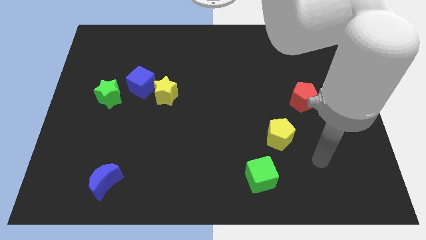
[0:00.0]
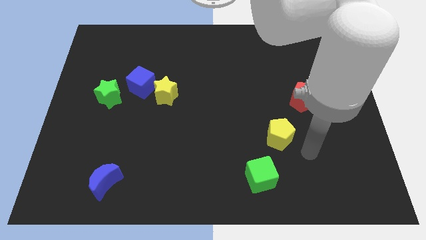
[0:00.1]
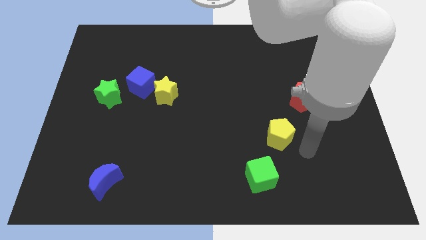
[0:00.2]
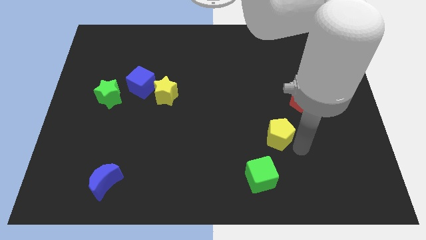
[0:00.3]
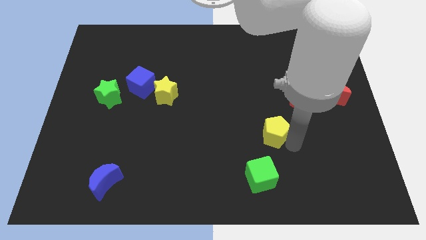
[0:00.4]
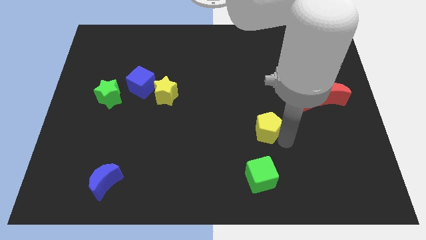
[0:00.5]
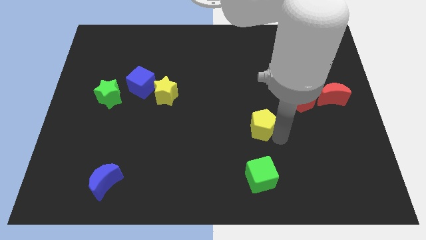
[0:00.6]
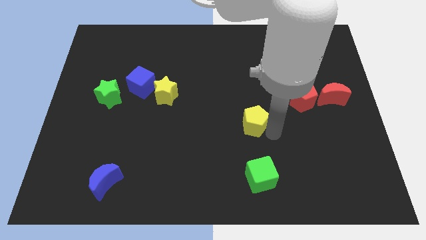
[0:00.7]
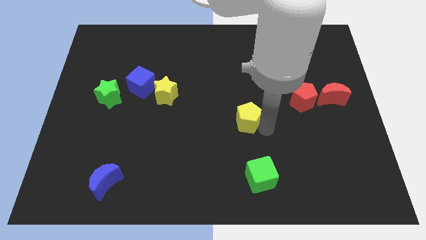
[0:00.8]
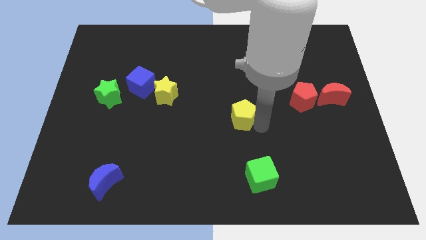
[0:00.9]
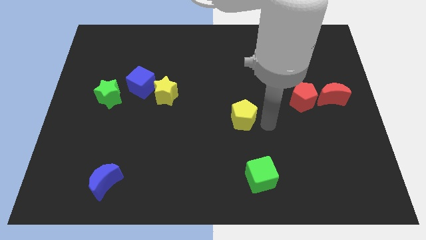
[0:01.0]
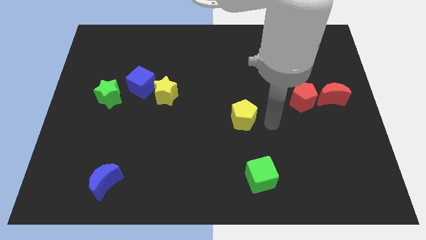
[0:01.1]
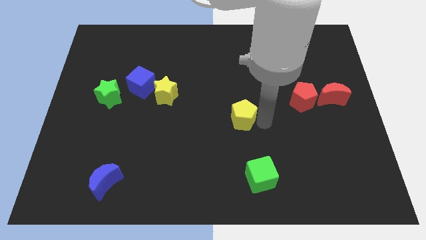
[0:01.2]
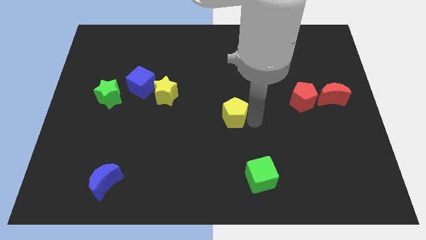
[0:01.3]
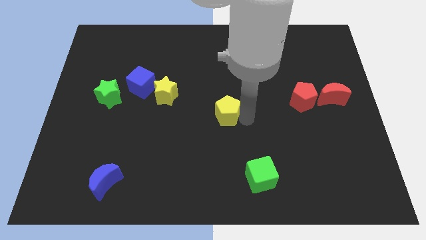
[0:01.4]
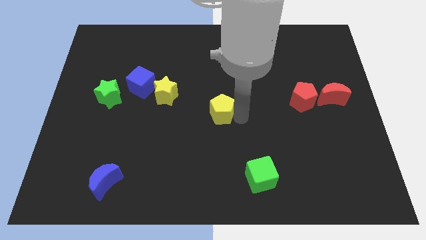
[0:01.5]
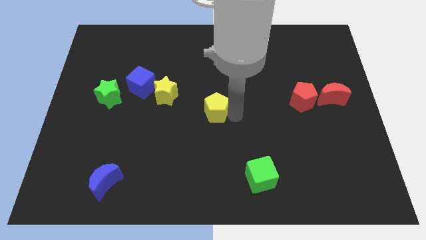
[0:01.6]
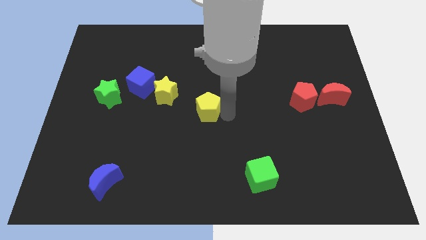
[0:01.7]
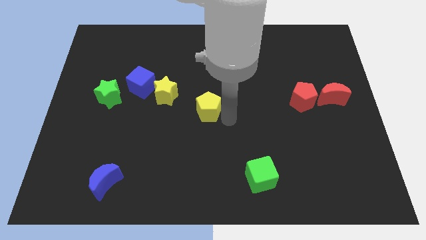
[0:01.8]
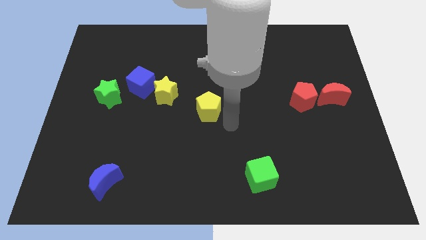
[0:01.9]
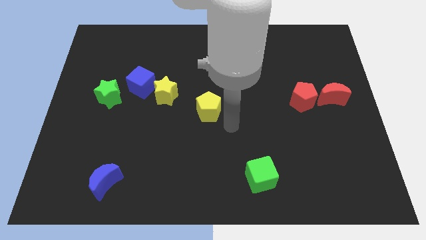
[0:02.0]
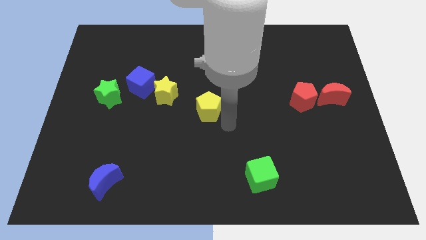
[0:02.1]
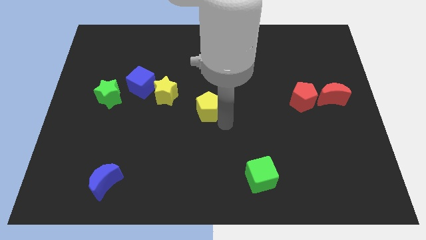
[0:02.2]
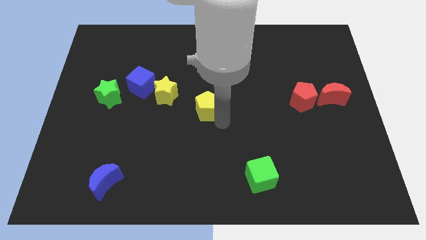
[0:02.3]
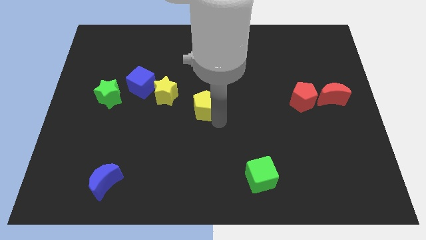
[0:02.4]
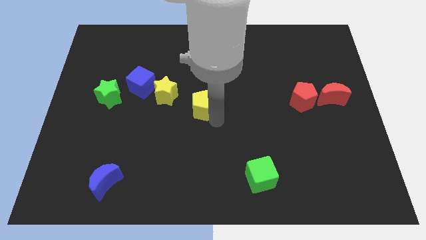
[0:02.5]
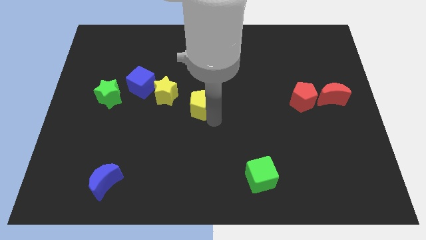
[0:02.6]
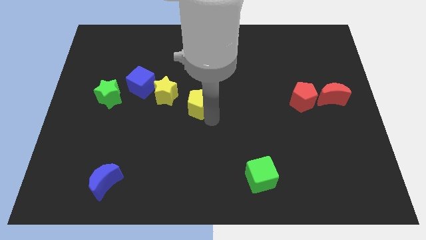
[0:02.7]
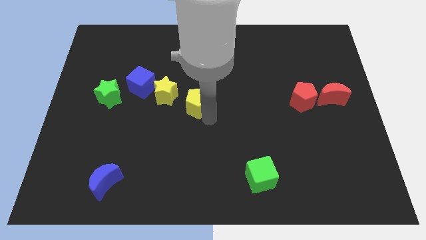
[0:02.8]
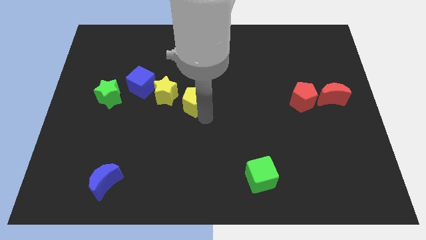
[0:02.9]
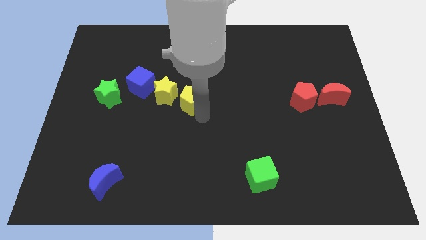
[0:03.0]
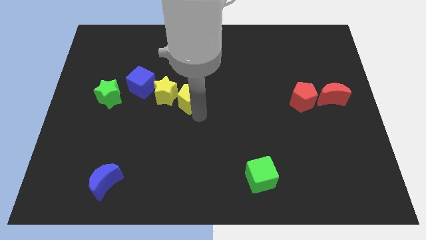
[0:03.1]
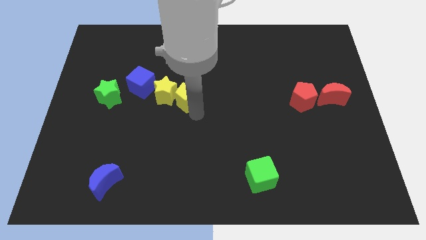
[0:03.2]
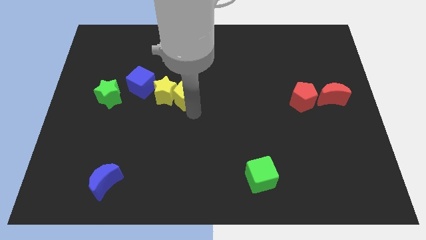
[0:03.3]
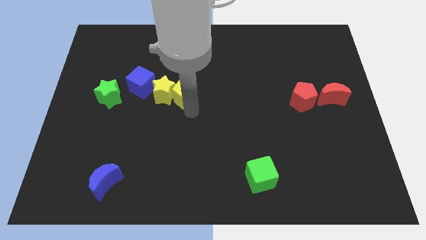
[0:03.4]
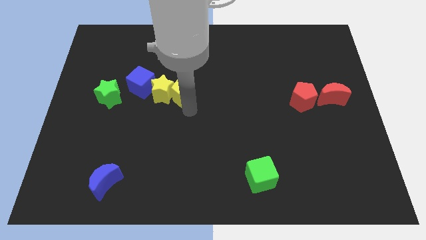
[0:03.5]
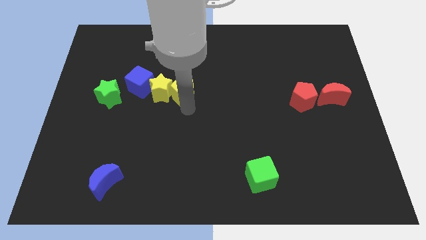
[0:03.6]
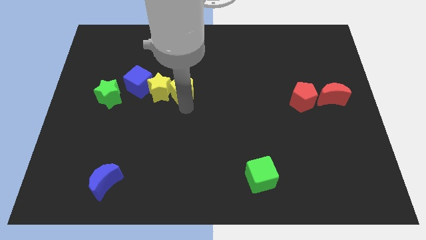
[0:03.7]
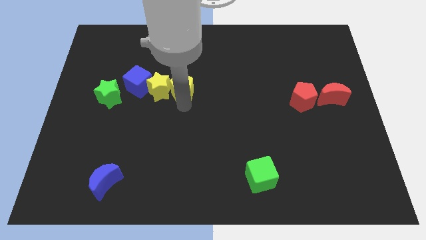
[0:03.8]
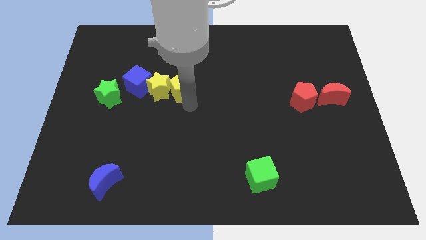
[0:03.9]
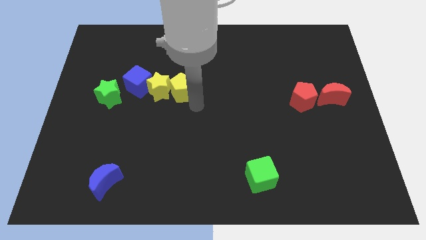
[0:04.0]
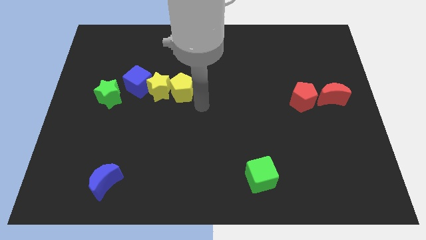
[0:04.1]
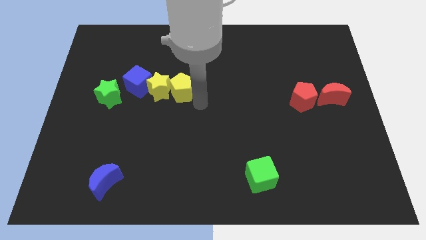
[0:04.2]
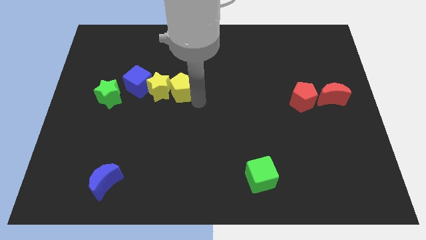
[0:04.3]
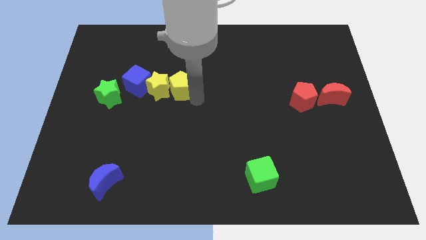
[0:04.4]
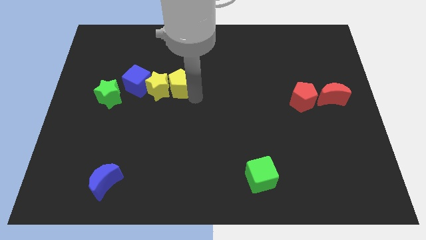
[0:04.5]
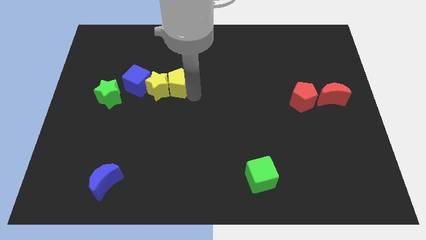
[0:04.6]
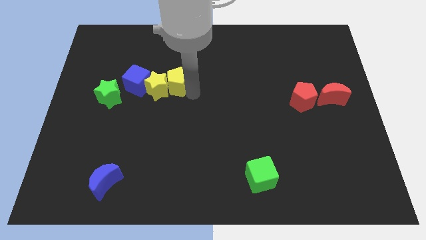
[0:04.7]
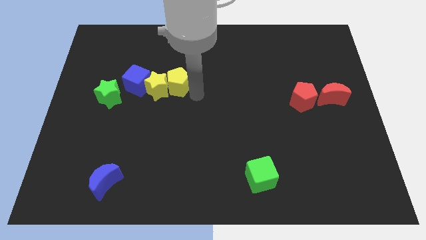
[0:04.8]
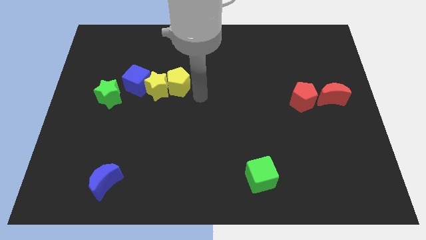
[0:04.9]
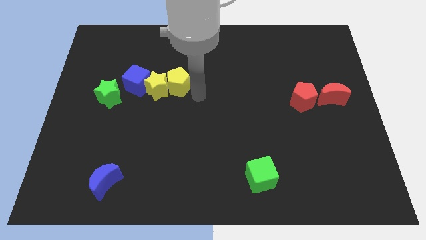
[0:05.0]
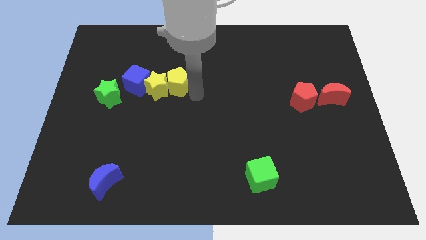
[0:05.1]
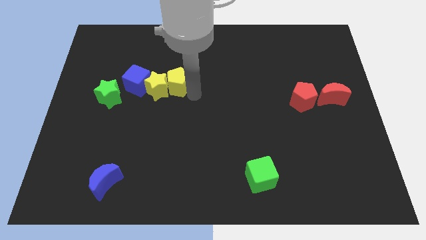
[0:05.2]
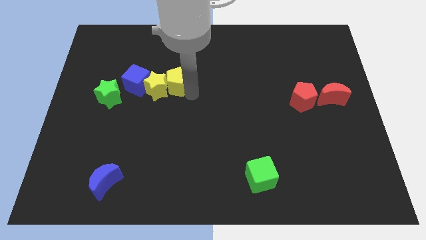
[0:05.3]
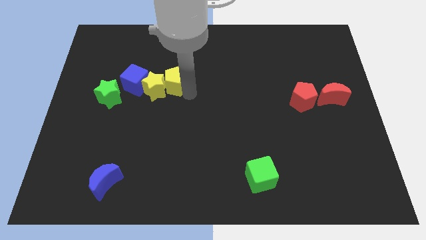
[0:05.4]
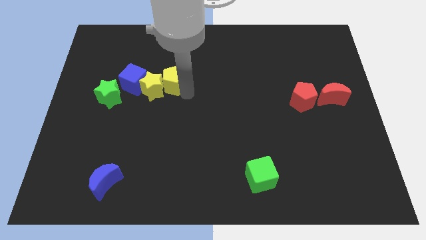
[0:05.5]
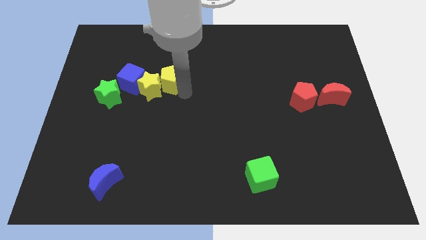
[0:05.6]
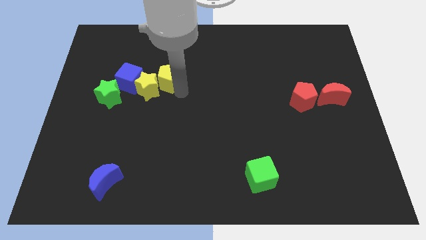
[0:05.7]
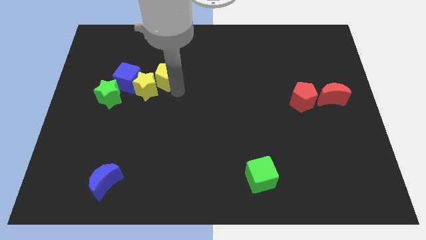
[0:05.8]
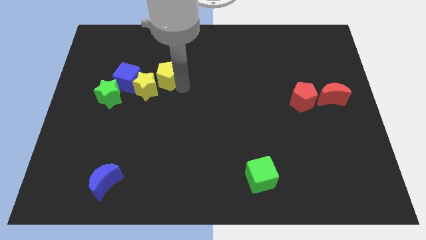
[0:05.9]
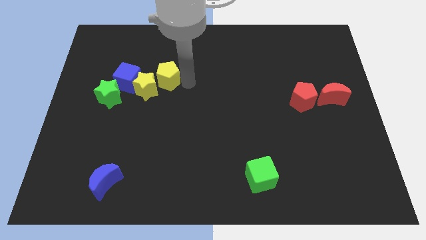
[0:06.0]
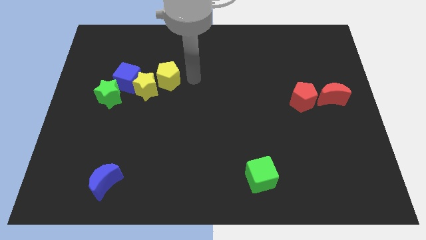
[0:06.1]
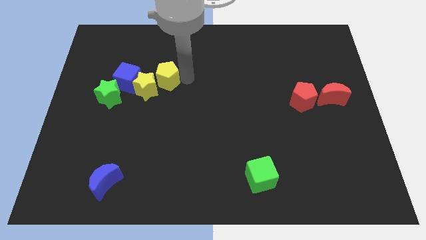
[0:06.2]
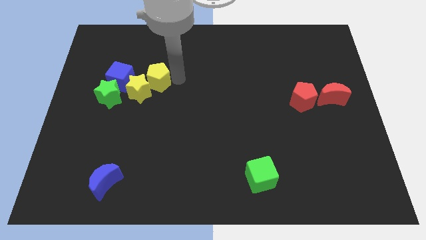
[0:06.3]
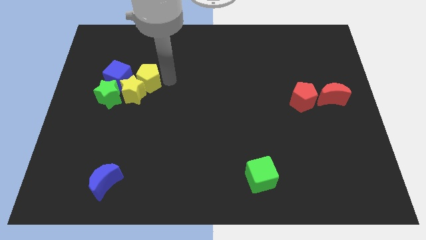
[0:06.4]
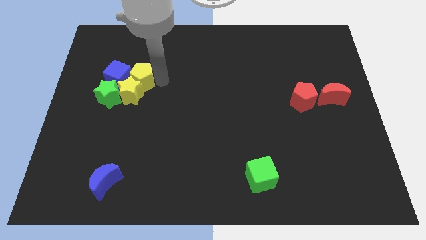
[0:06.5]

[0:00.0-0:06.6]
put the yellow pentagon next to the blue cube
